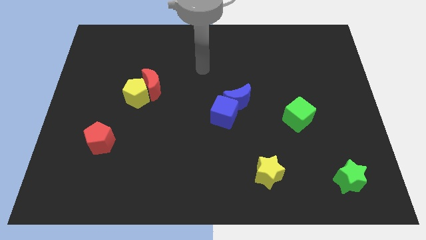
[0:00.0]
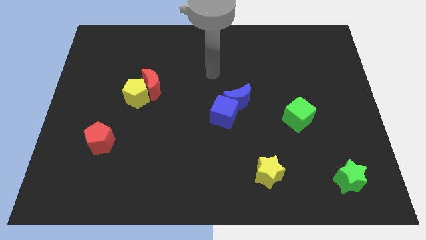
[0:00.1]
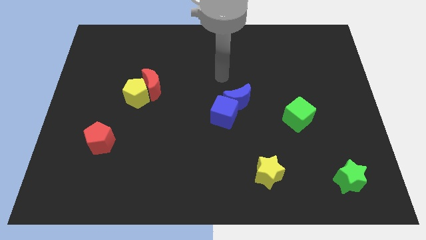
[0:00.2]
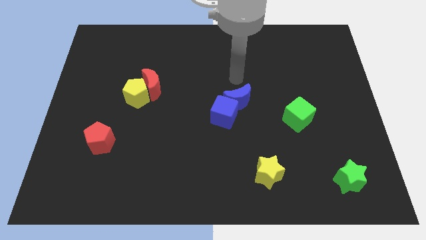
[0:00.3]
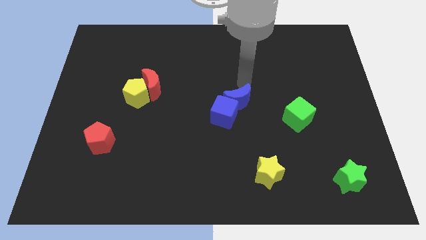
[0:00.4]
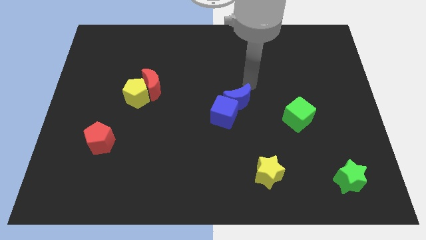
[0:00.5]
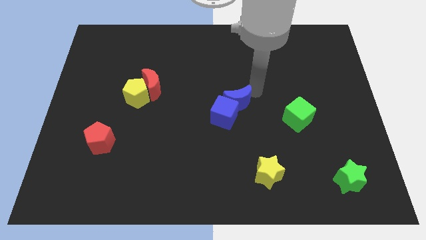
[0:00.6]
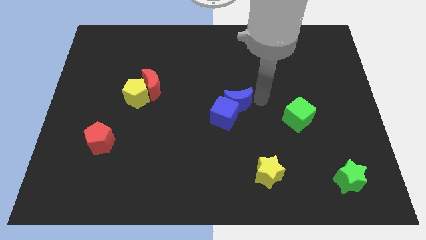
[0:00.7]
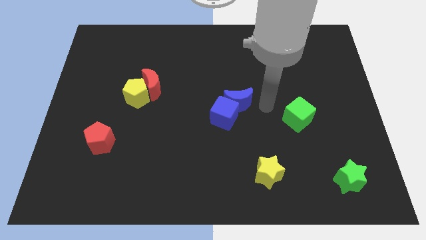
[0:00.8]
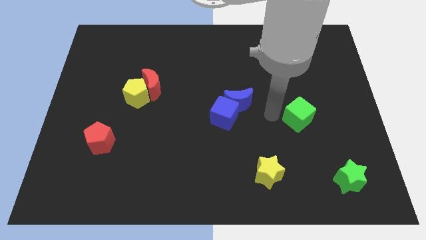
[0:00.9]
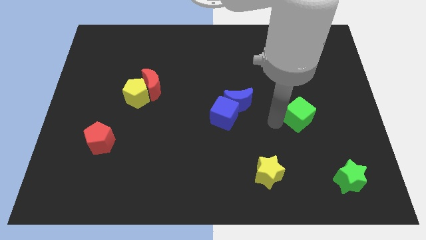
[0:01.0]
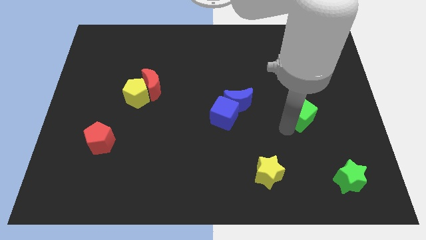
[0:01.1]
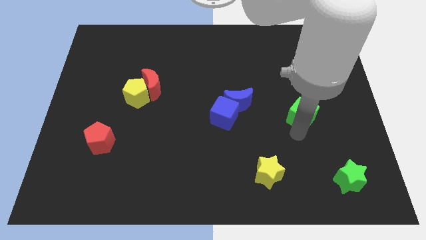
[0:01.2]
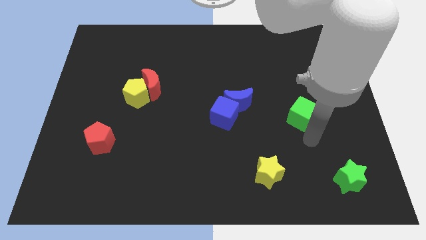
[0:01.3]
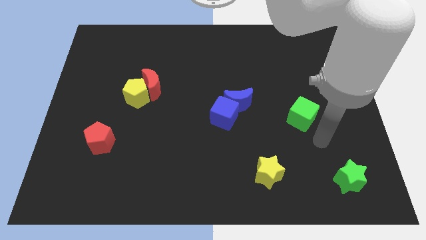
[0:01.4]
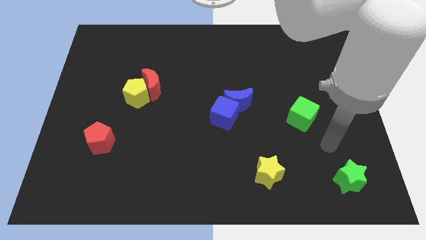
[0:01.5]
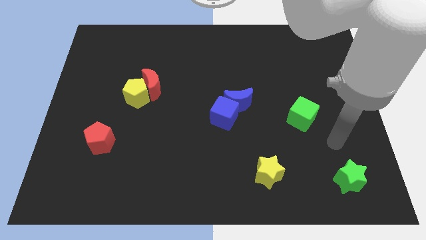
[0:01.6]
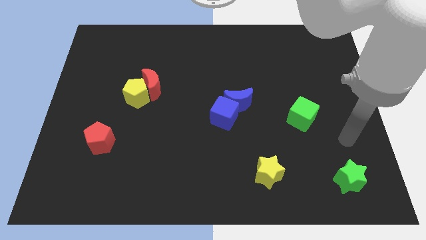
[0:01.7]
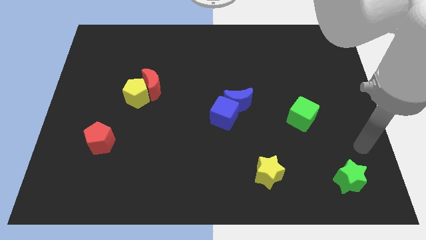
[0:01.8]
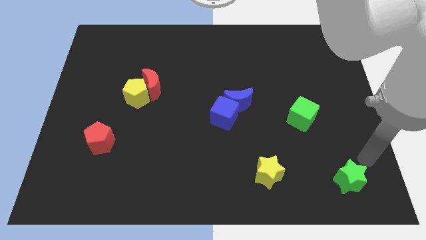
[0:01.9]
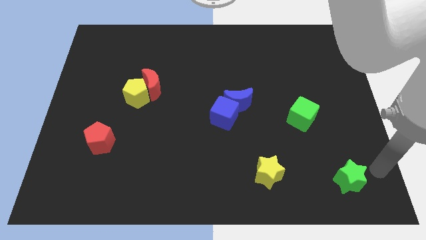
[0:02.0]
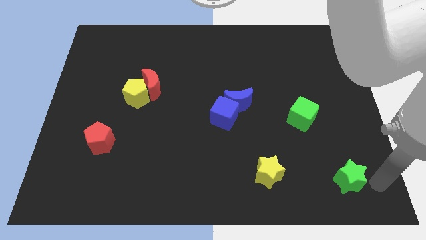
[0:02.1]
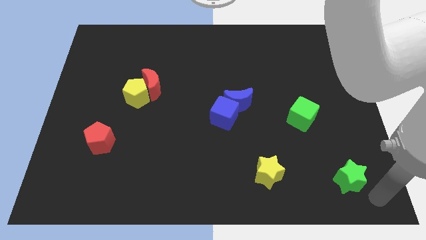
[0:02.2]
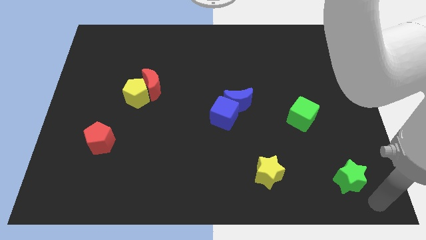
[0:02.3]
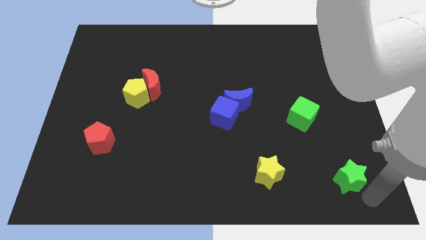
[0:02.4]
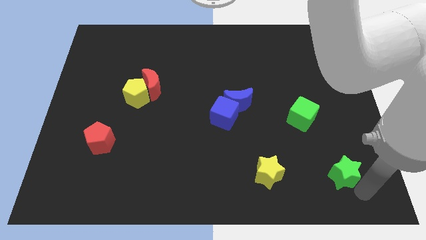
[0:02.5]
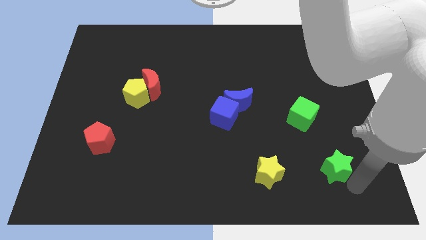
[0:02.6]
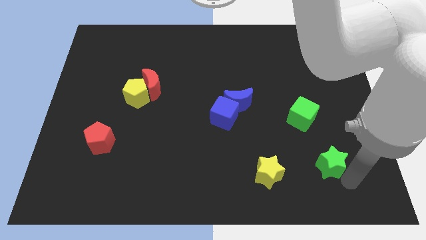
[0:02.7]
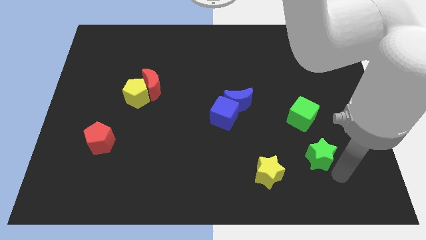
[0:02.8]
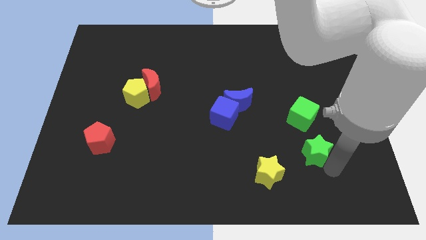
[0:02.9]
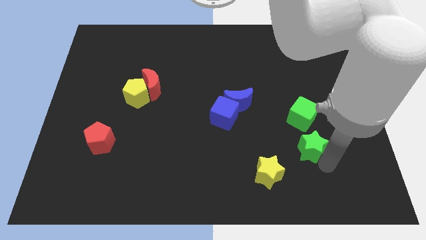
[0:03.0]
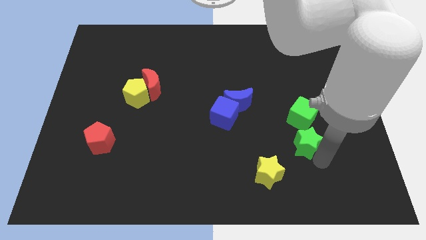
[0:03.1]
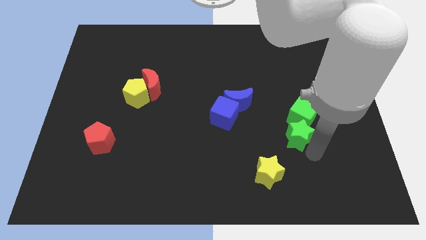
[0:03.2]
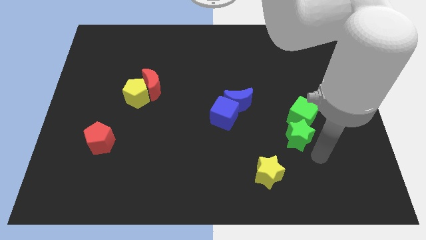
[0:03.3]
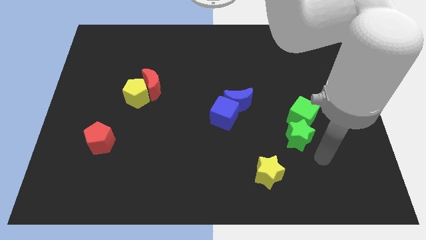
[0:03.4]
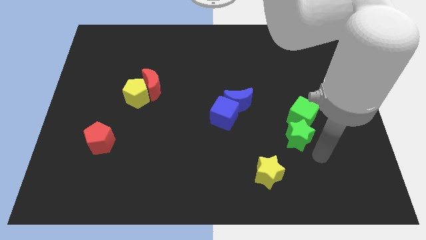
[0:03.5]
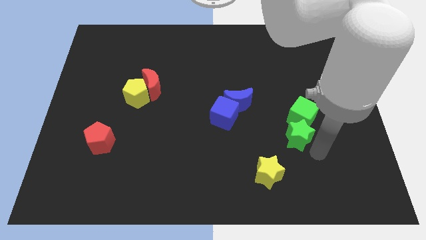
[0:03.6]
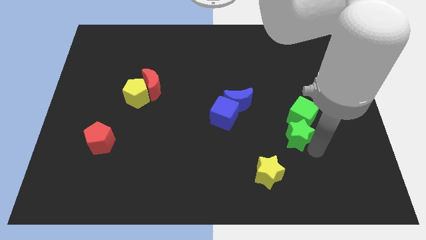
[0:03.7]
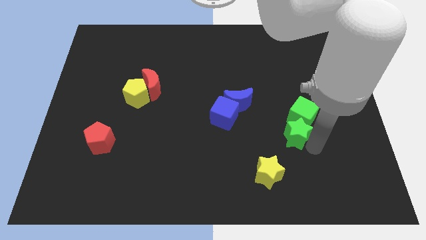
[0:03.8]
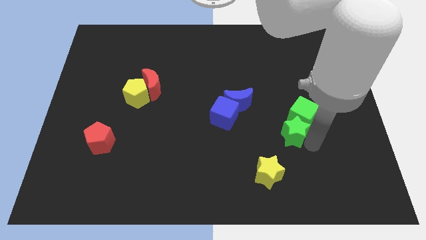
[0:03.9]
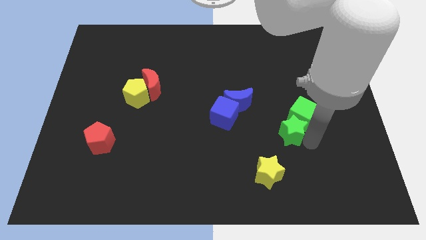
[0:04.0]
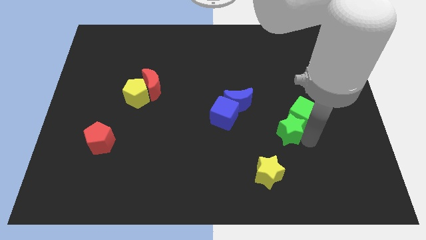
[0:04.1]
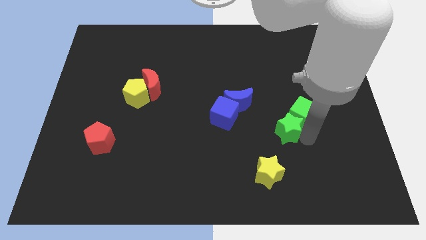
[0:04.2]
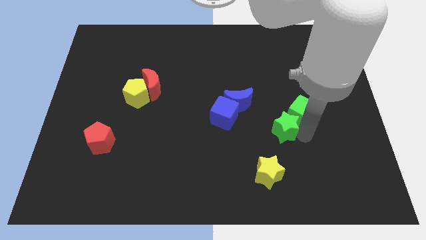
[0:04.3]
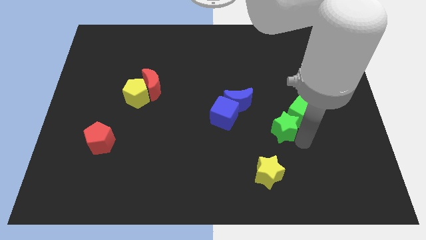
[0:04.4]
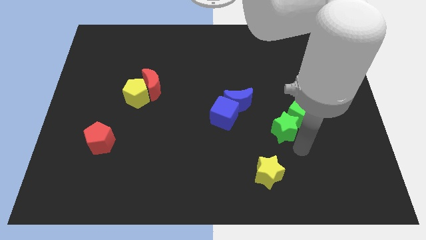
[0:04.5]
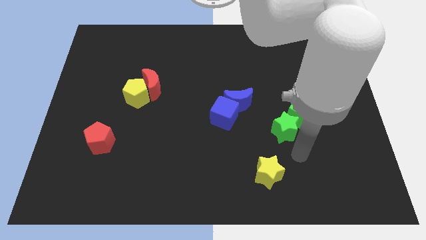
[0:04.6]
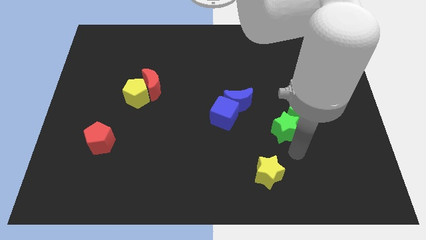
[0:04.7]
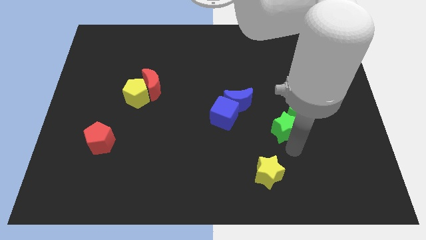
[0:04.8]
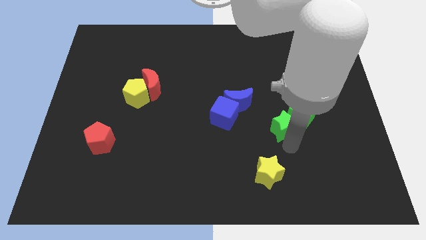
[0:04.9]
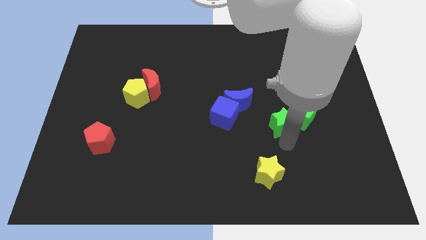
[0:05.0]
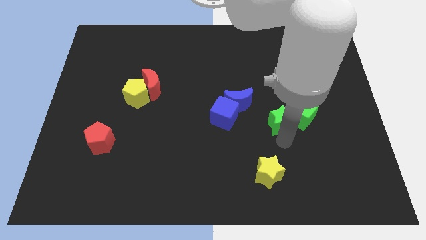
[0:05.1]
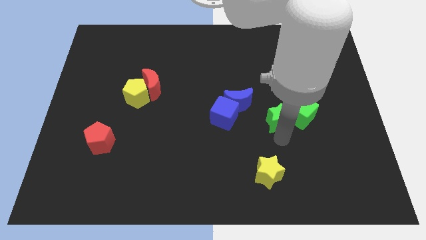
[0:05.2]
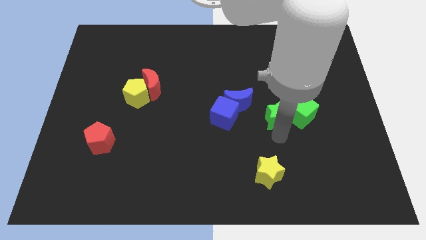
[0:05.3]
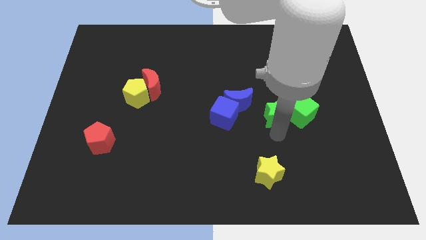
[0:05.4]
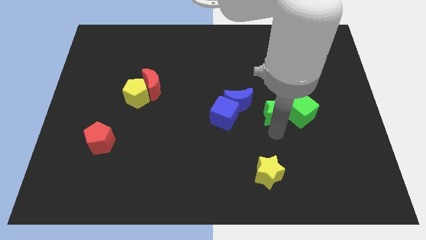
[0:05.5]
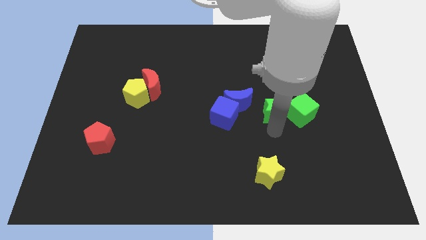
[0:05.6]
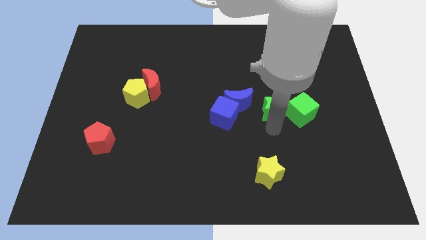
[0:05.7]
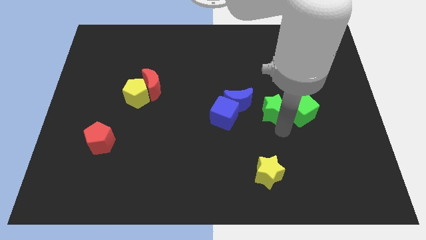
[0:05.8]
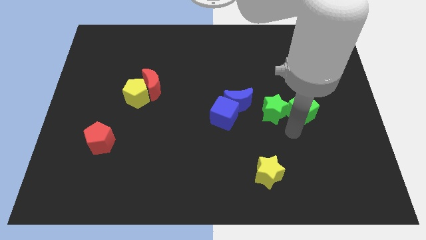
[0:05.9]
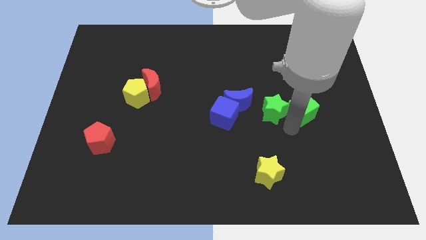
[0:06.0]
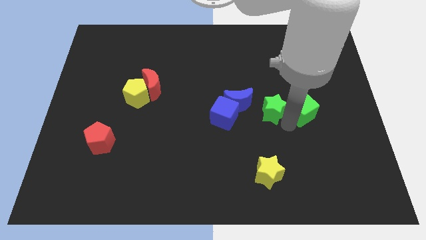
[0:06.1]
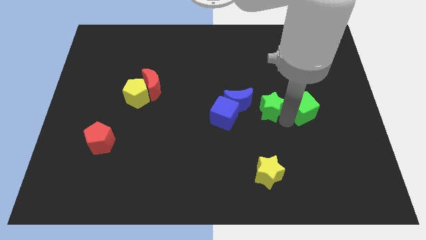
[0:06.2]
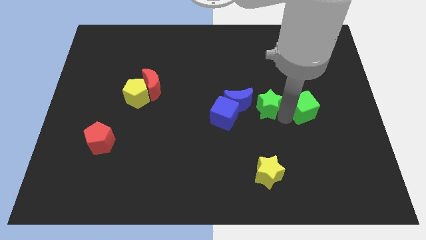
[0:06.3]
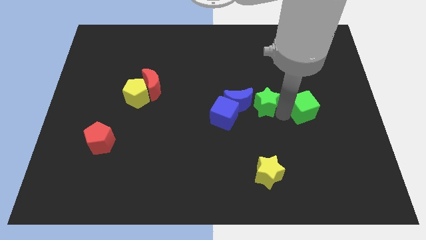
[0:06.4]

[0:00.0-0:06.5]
slide the green star to the middle of the board

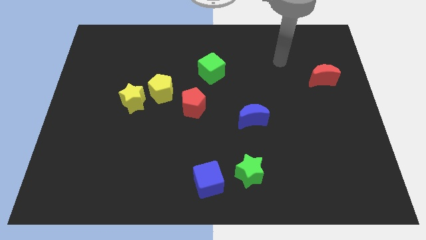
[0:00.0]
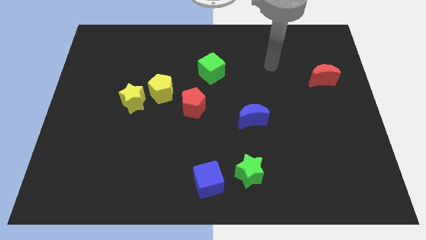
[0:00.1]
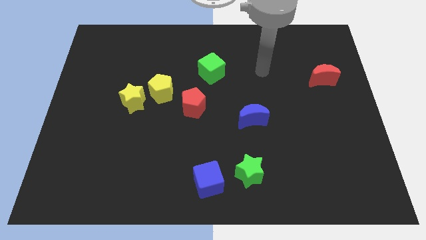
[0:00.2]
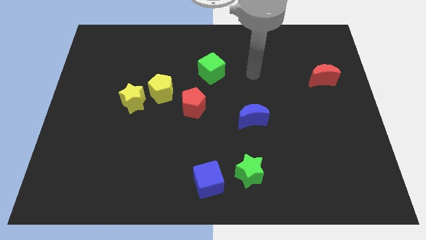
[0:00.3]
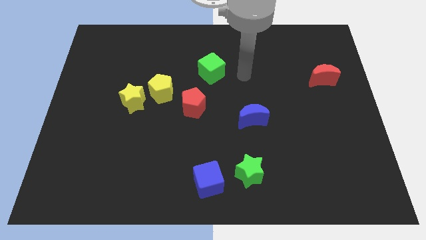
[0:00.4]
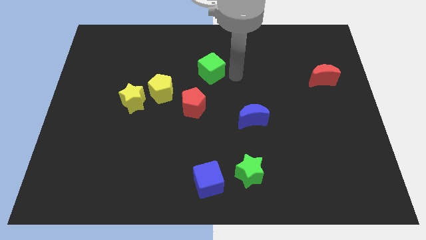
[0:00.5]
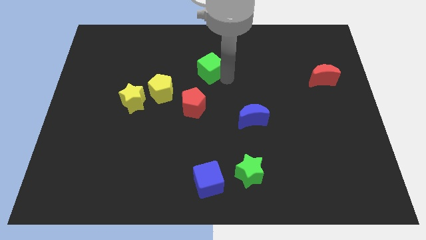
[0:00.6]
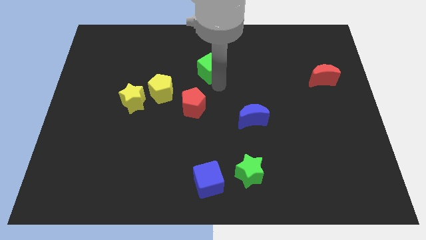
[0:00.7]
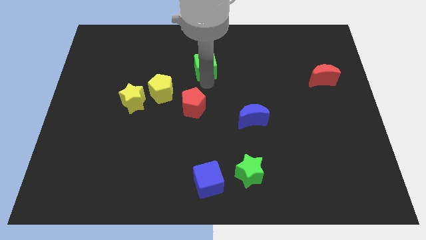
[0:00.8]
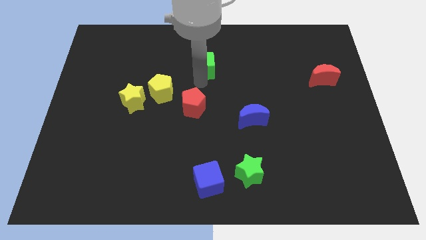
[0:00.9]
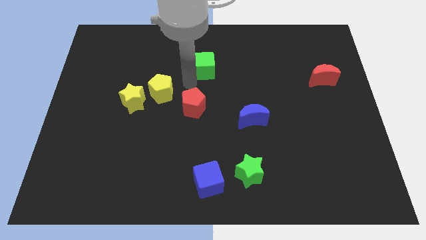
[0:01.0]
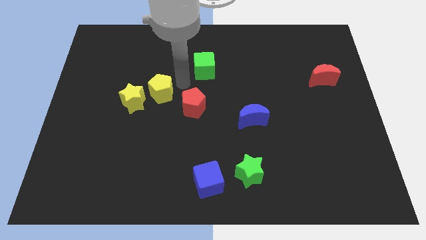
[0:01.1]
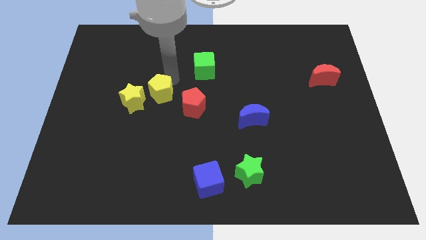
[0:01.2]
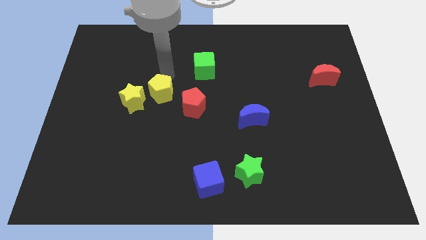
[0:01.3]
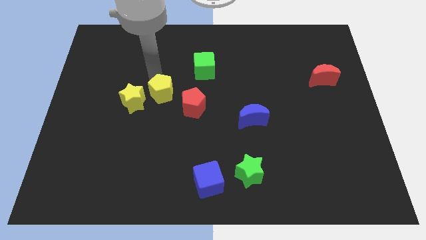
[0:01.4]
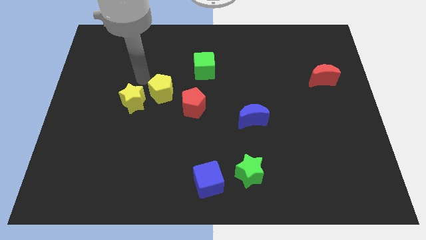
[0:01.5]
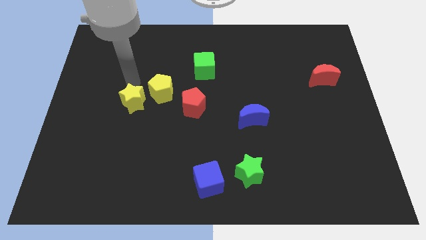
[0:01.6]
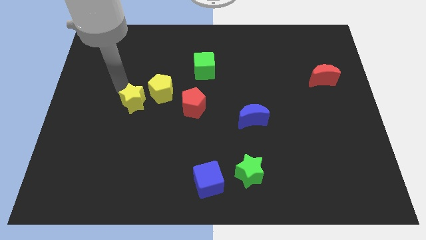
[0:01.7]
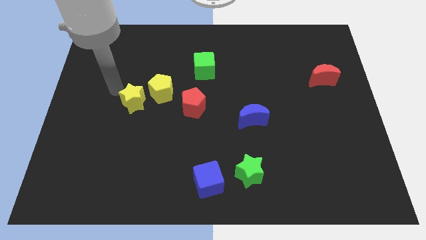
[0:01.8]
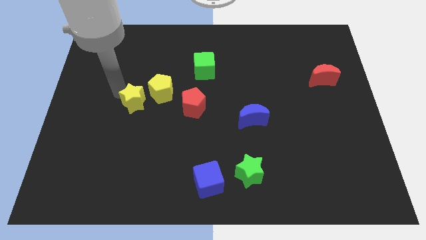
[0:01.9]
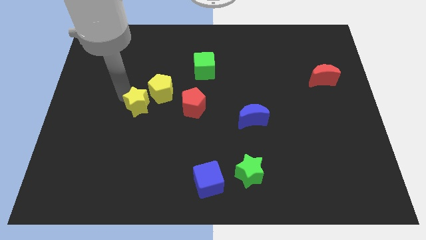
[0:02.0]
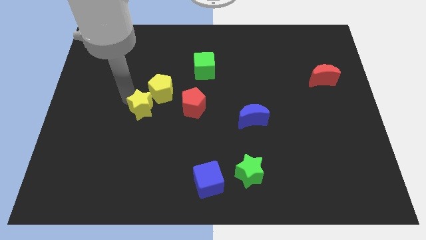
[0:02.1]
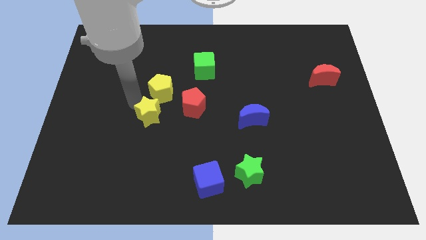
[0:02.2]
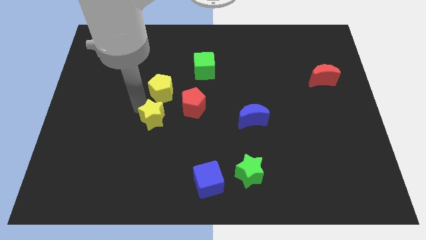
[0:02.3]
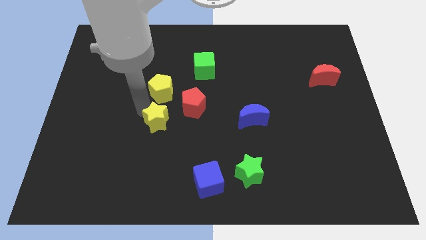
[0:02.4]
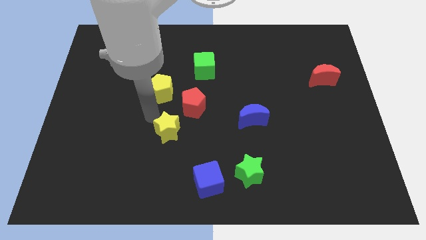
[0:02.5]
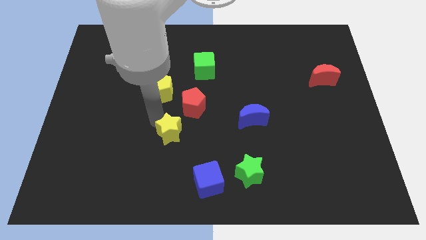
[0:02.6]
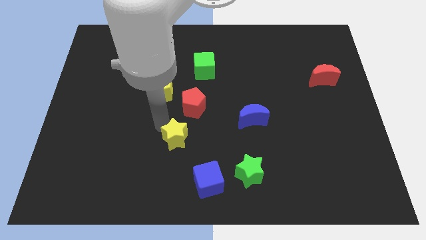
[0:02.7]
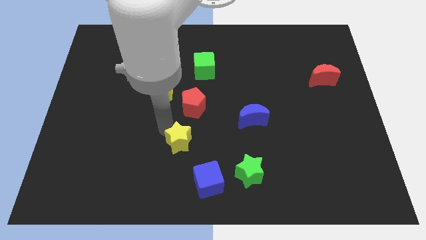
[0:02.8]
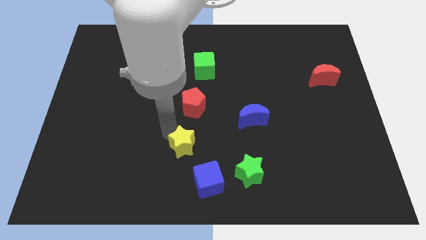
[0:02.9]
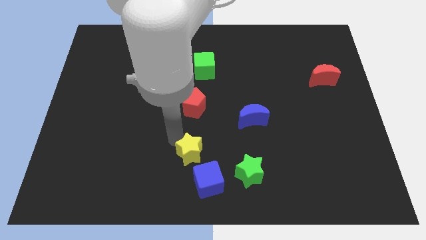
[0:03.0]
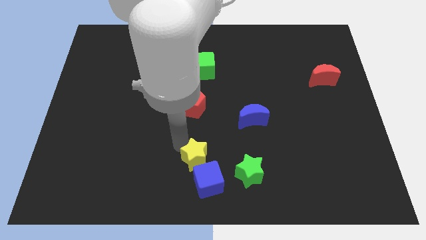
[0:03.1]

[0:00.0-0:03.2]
put the yellow star to the bottom
